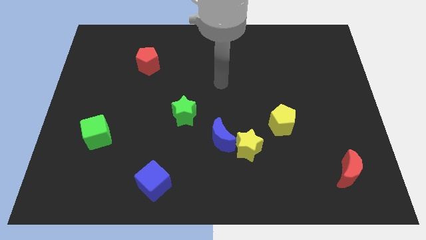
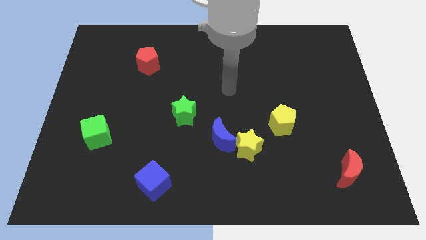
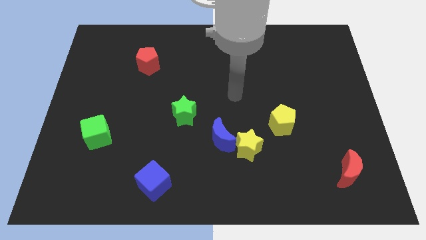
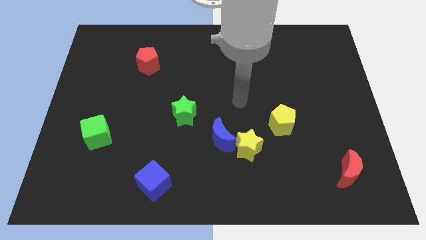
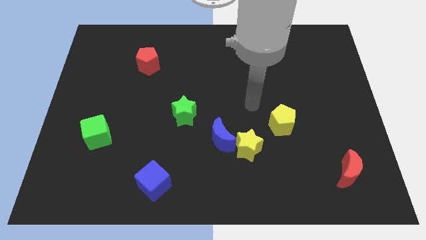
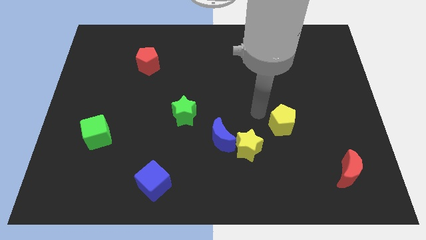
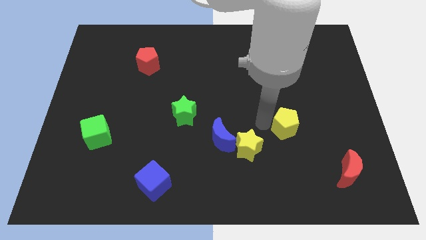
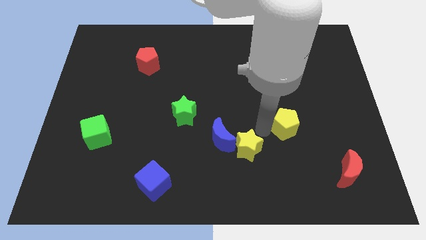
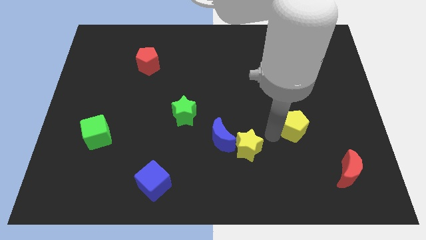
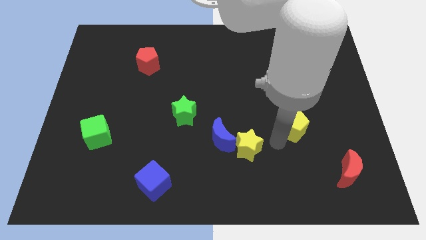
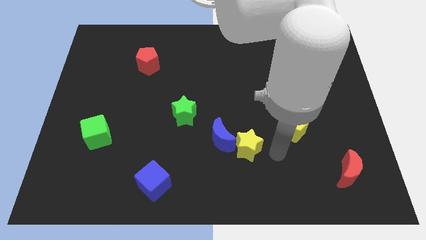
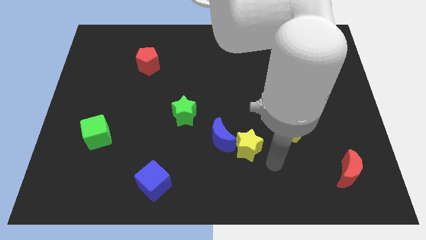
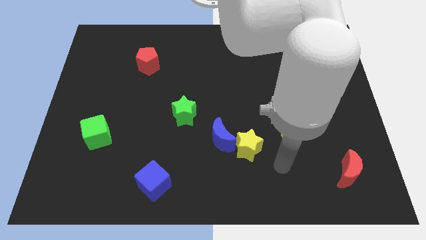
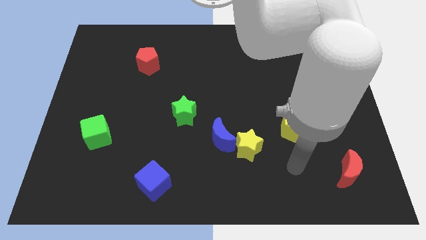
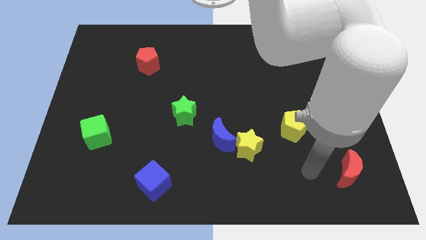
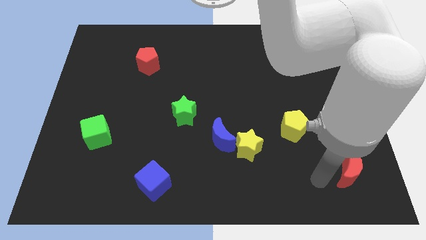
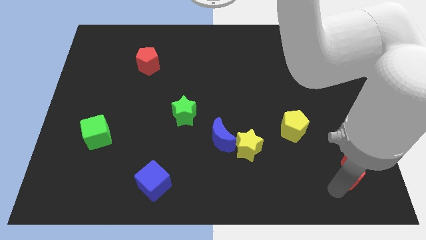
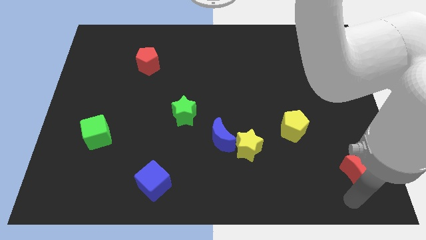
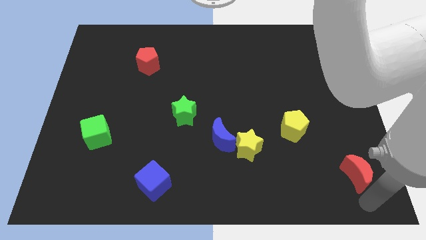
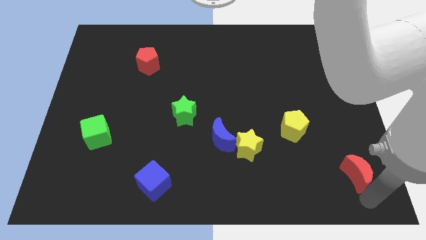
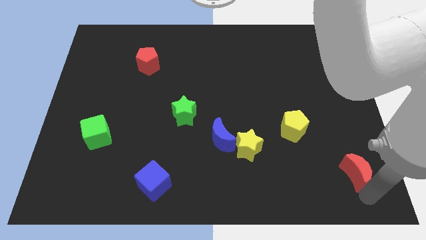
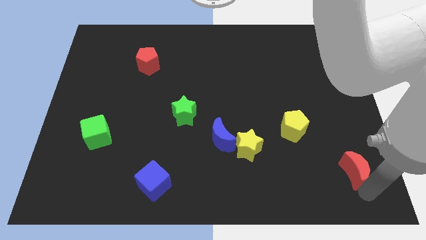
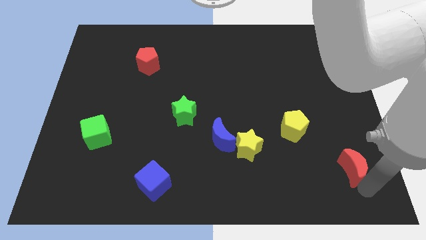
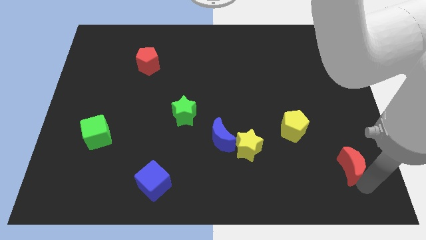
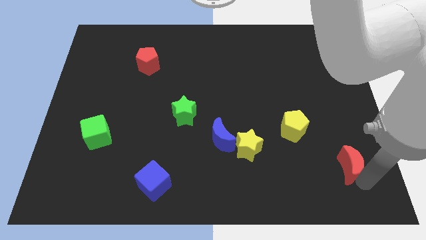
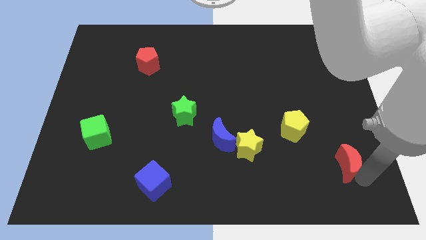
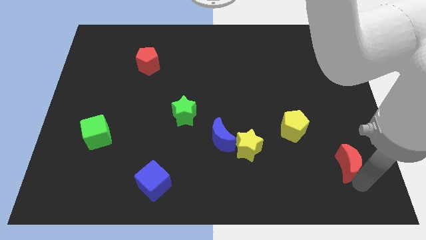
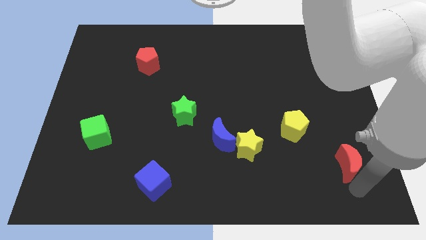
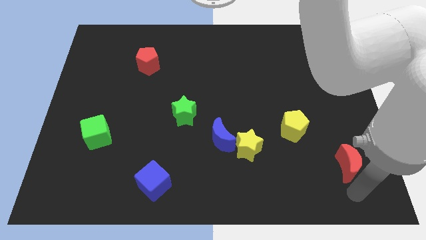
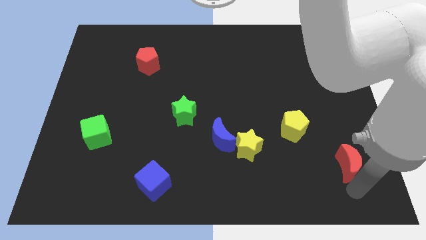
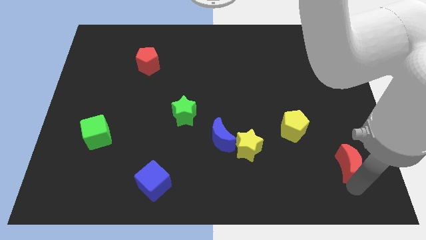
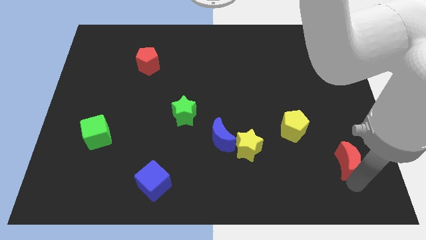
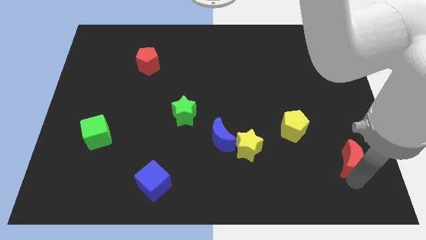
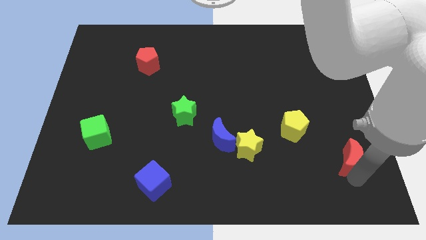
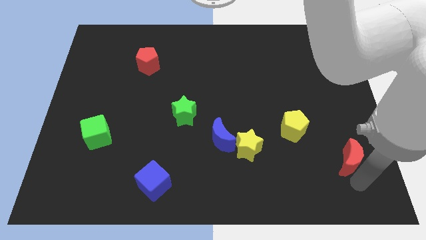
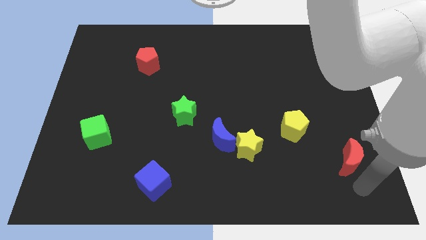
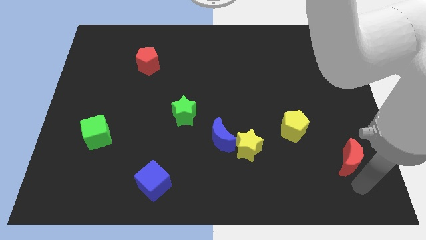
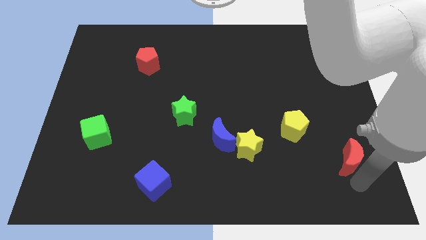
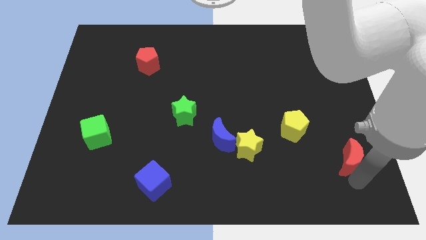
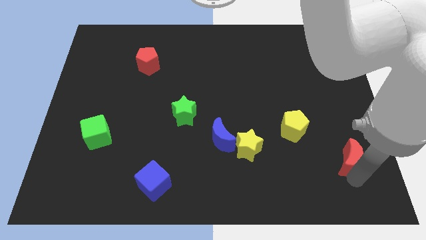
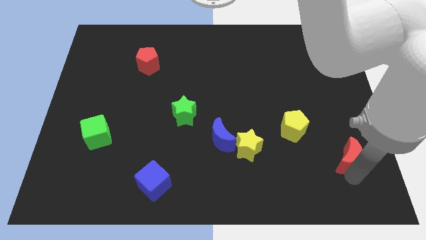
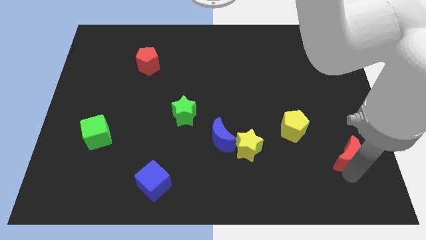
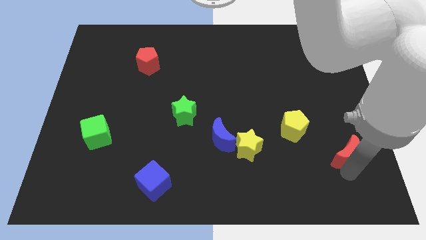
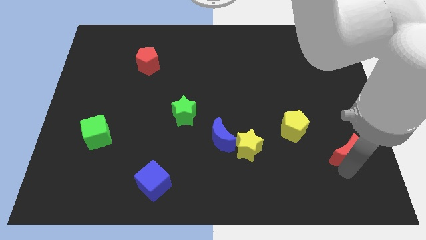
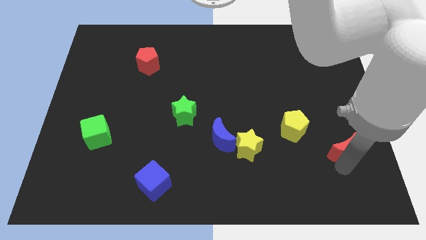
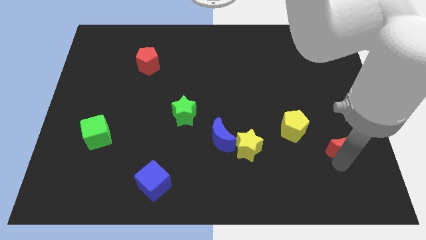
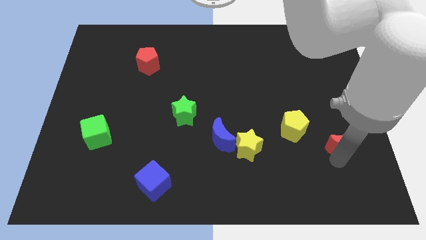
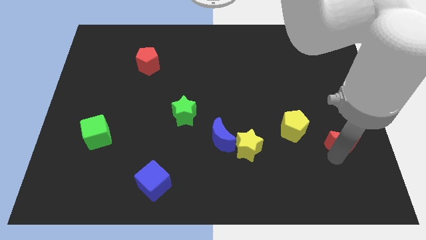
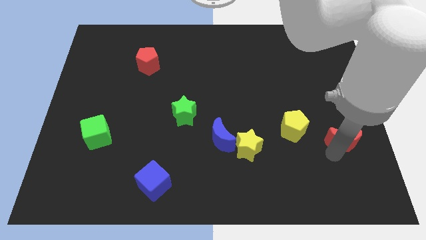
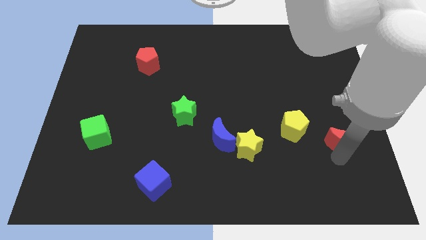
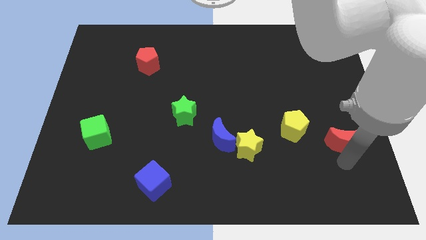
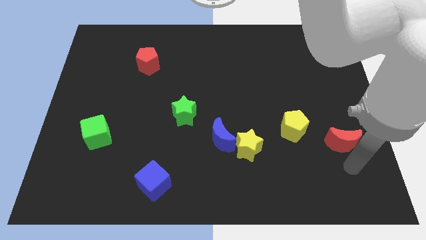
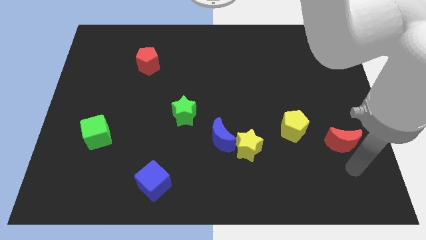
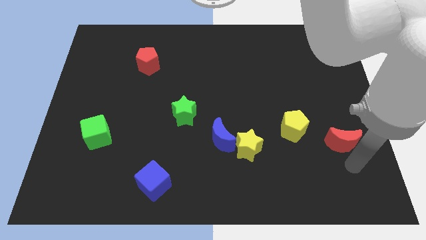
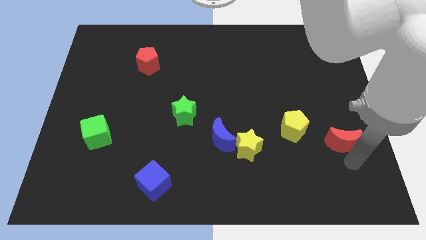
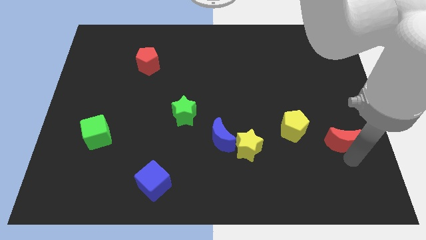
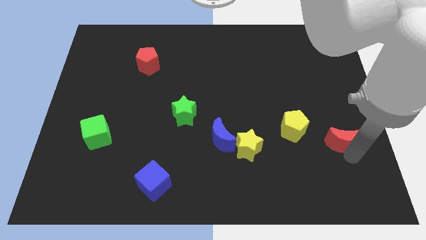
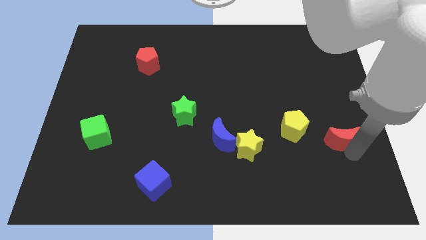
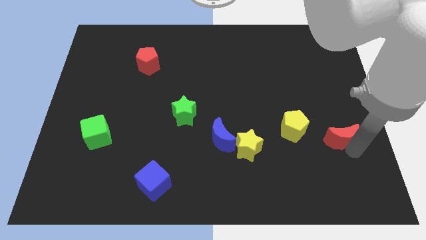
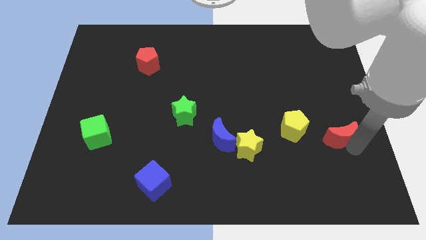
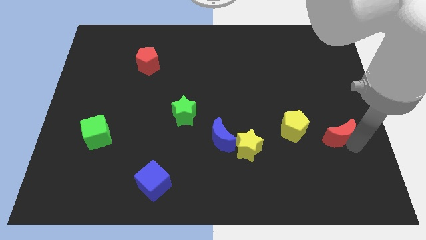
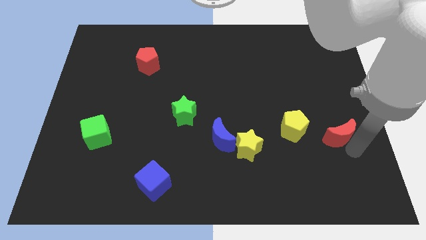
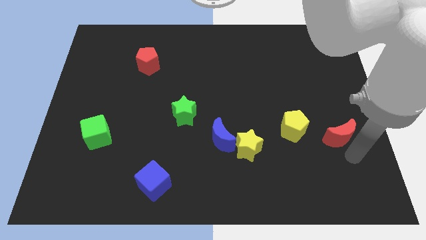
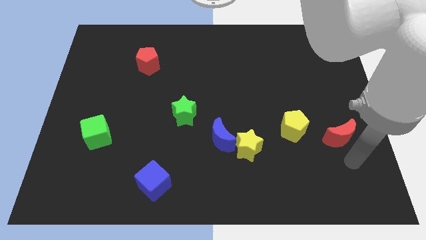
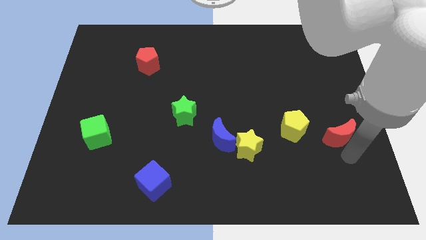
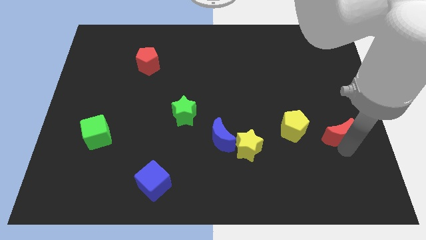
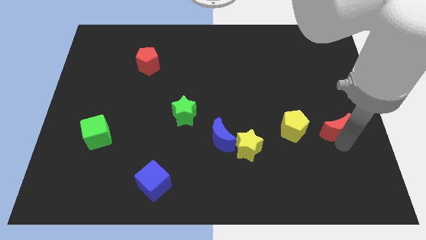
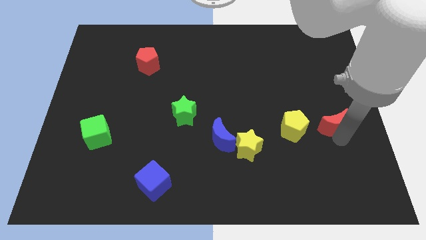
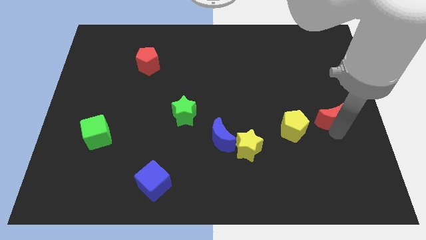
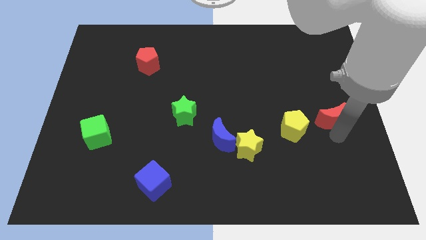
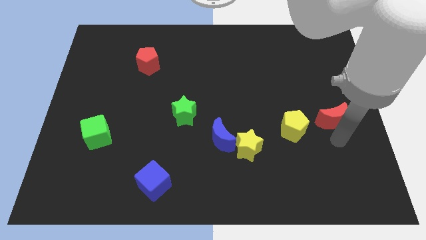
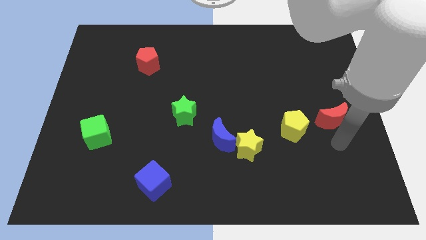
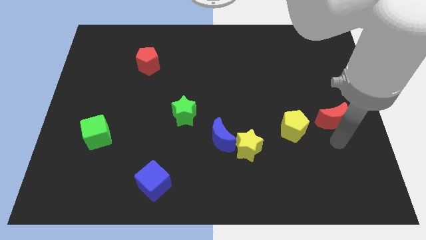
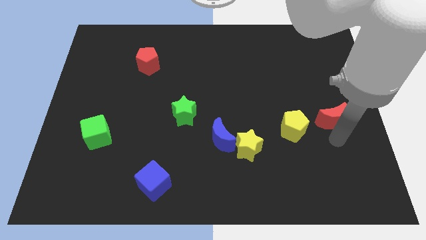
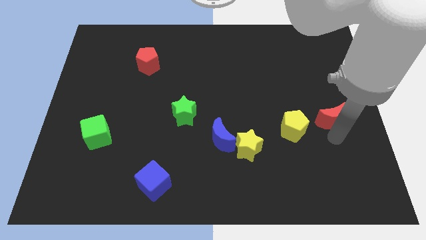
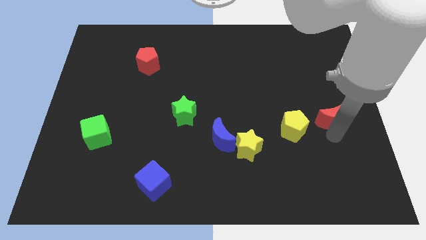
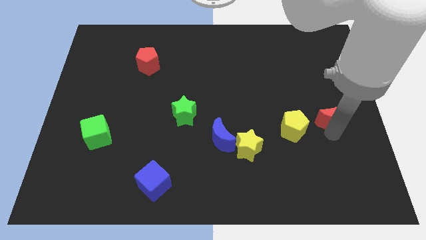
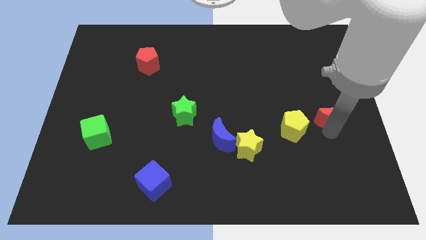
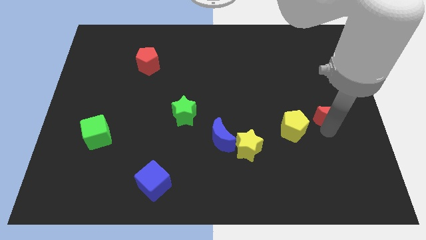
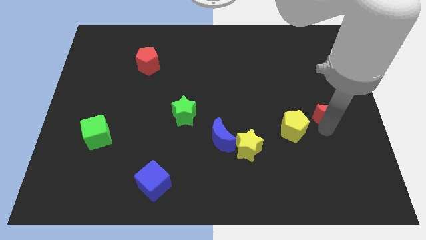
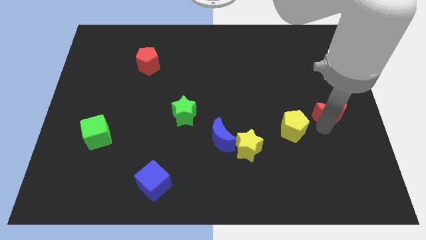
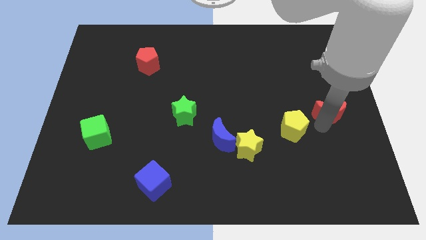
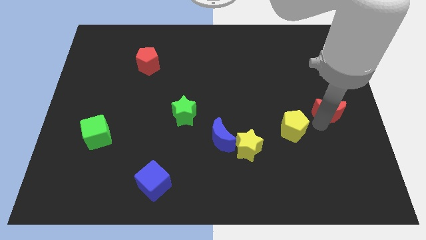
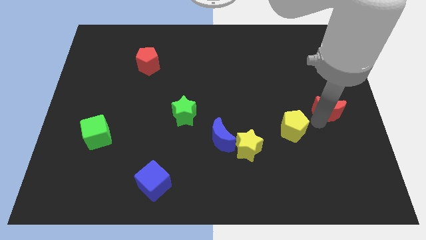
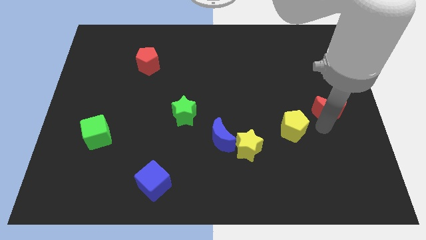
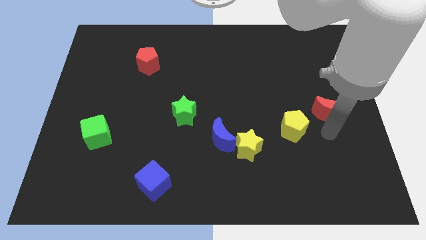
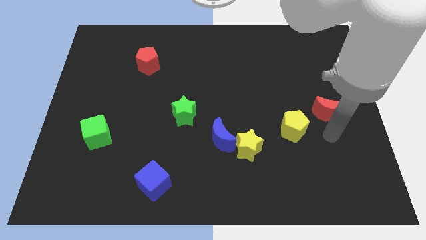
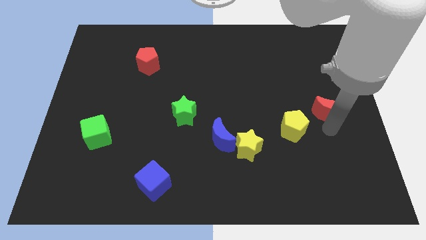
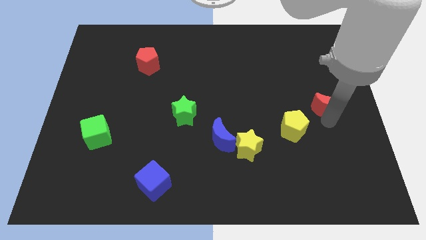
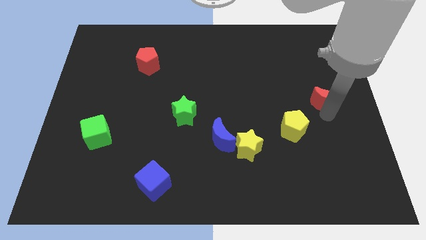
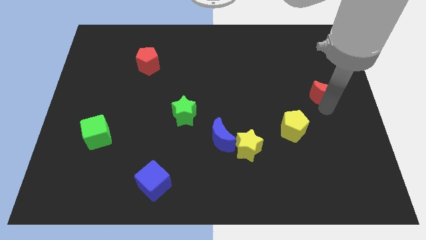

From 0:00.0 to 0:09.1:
push the red moon upwards
